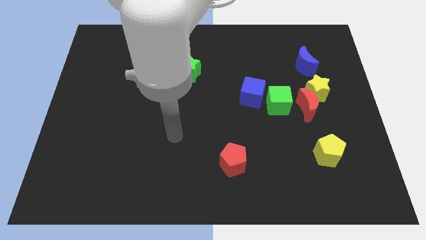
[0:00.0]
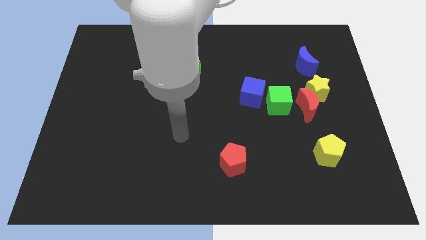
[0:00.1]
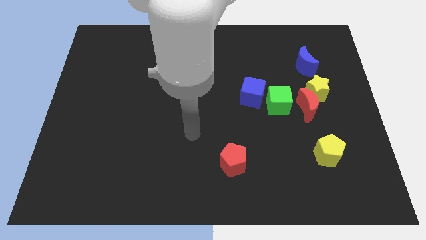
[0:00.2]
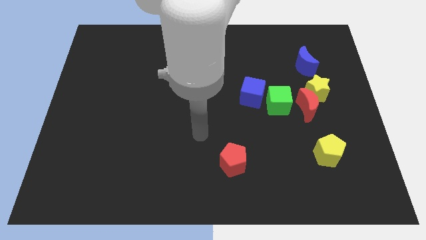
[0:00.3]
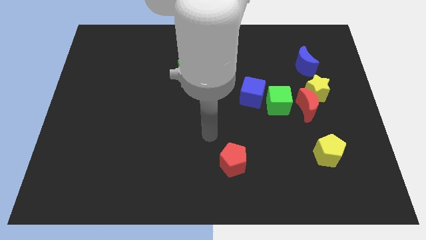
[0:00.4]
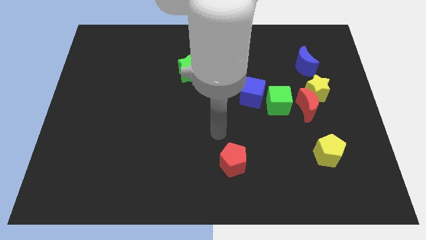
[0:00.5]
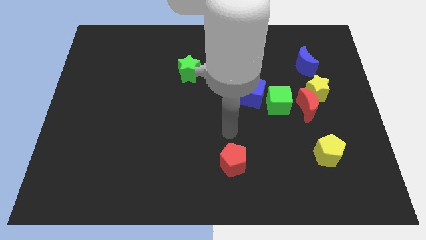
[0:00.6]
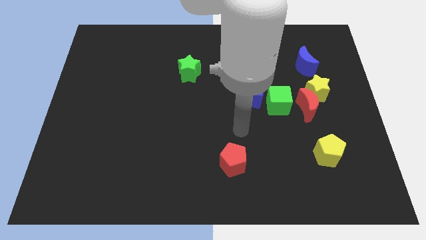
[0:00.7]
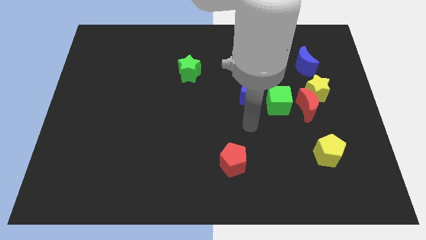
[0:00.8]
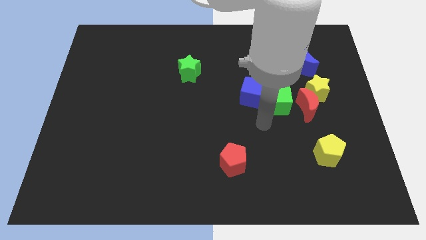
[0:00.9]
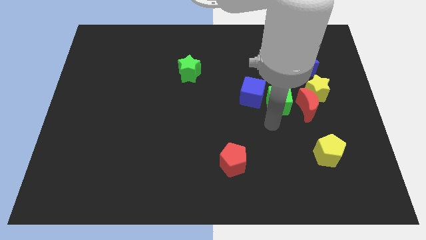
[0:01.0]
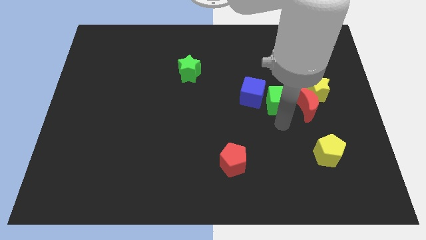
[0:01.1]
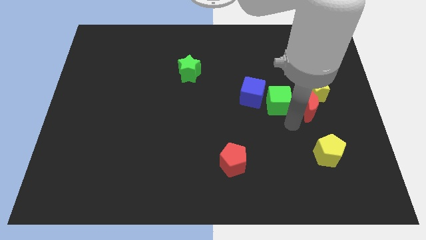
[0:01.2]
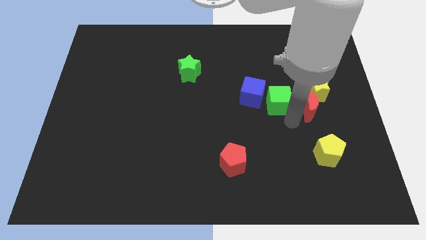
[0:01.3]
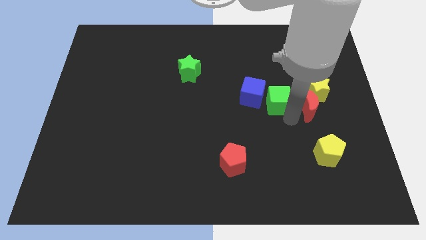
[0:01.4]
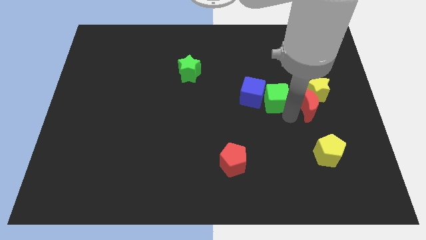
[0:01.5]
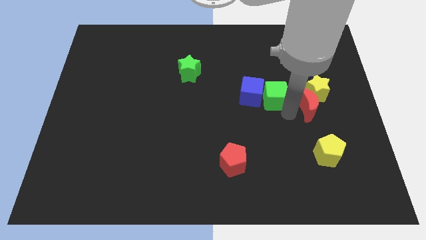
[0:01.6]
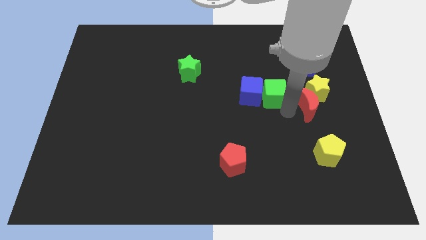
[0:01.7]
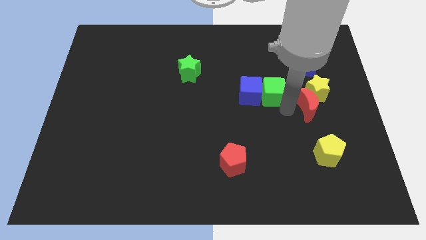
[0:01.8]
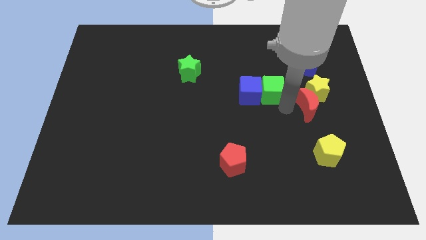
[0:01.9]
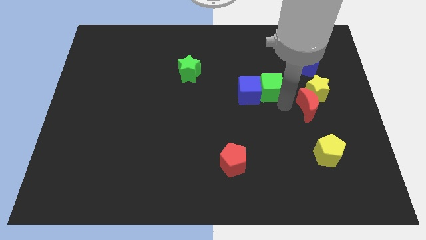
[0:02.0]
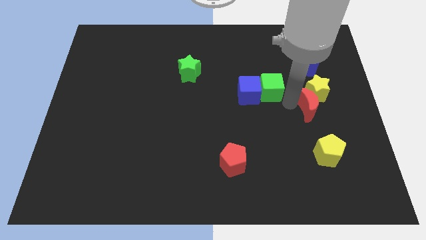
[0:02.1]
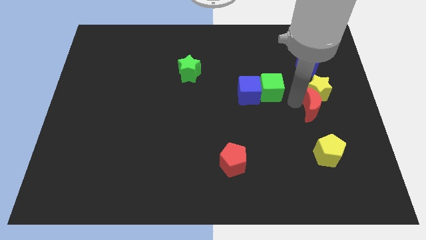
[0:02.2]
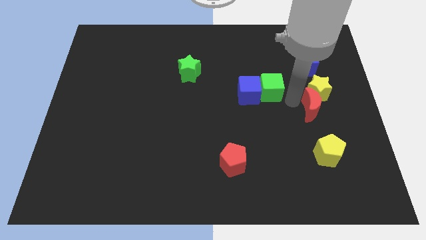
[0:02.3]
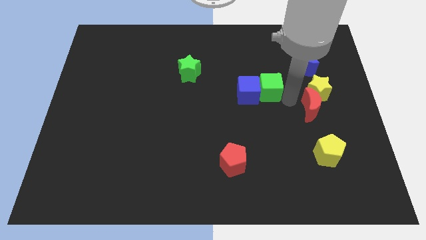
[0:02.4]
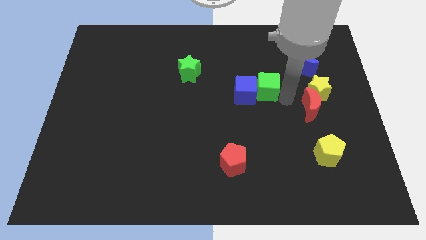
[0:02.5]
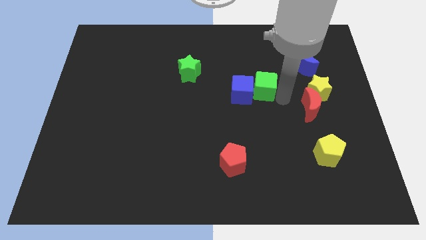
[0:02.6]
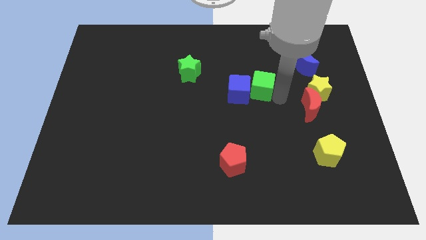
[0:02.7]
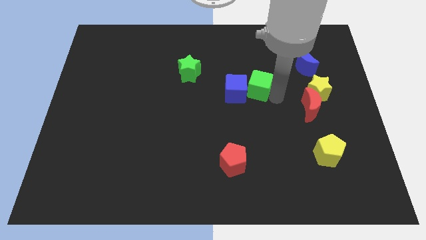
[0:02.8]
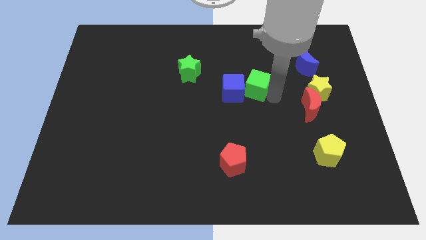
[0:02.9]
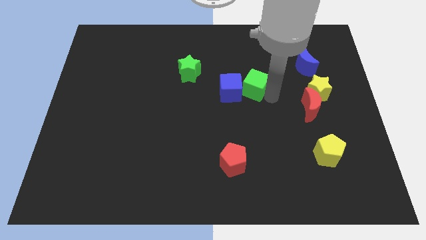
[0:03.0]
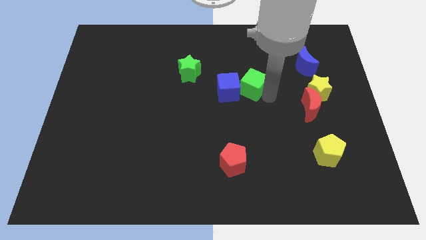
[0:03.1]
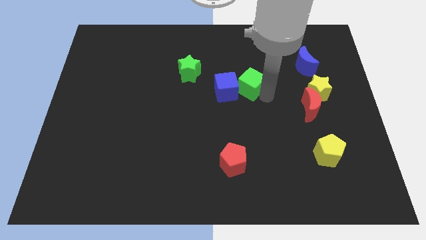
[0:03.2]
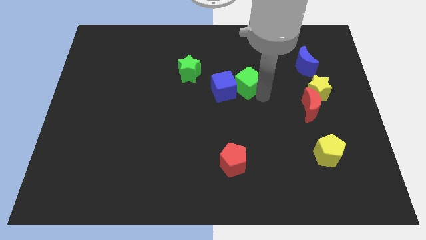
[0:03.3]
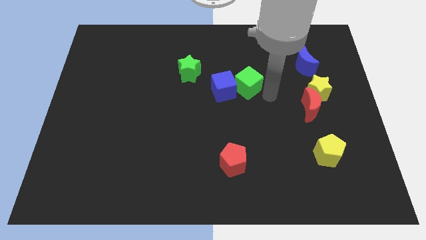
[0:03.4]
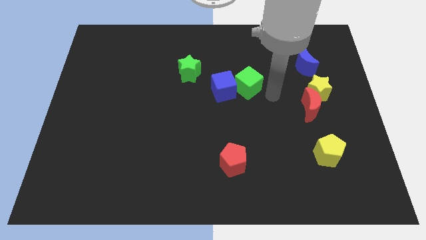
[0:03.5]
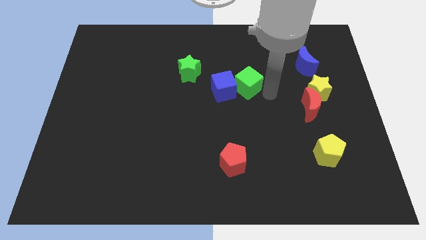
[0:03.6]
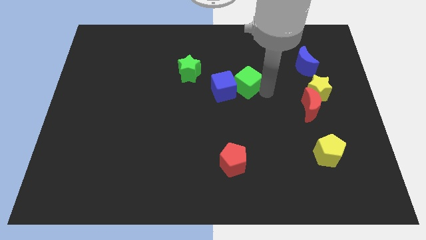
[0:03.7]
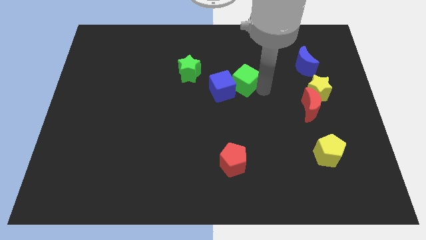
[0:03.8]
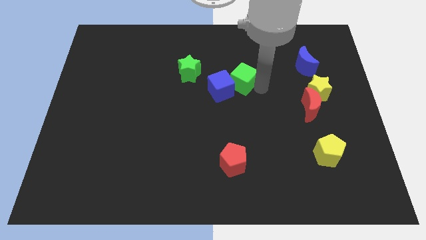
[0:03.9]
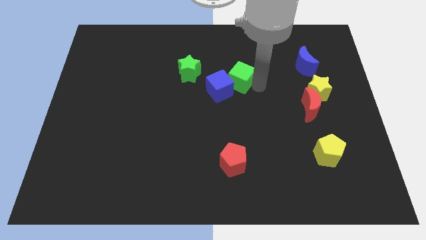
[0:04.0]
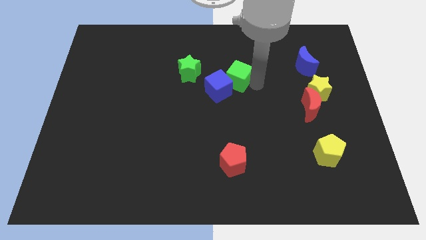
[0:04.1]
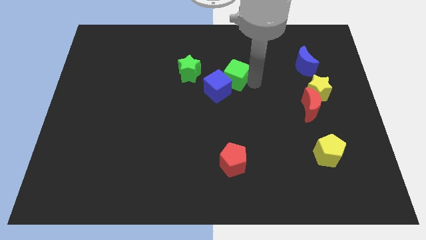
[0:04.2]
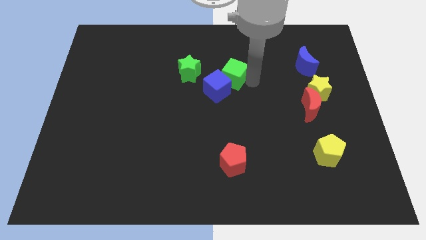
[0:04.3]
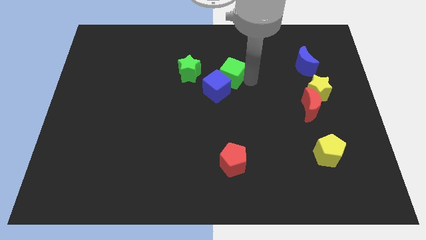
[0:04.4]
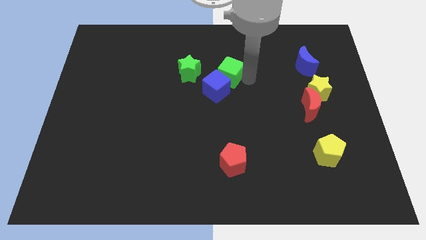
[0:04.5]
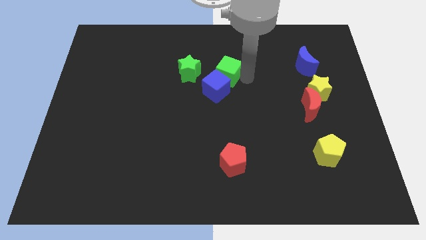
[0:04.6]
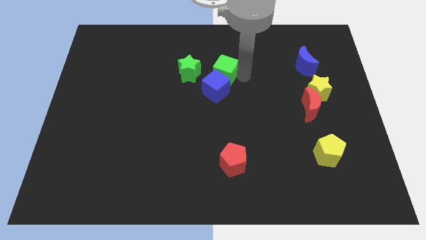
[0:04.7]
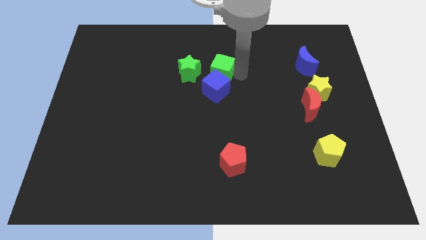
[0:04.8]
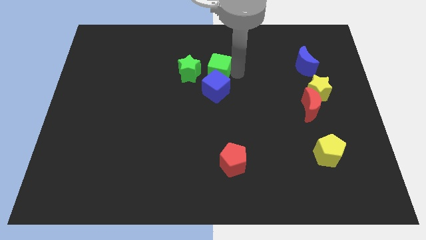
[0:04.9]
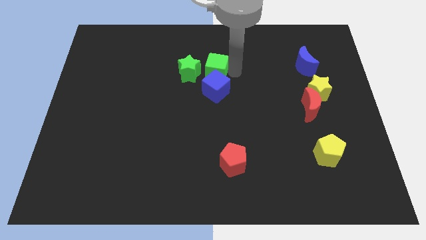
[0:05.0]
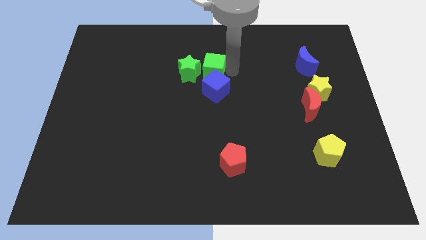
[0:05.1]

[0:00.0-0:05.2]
put the green cube close to the green star

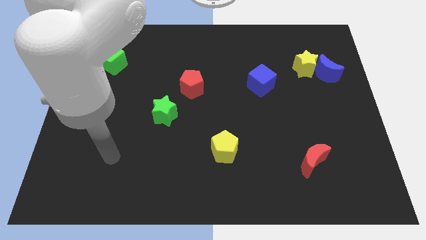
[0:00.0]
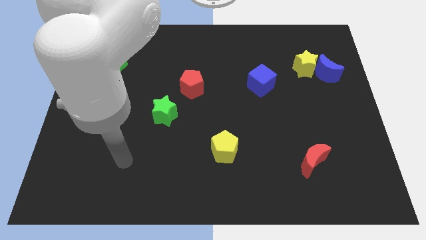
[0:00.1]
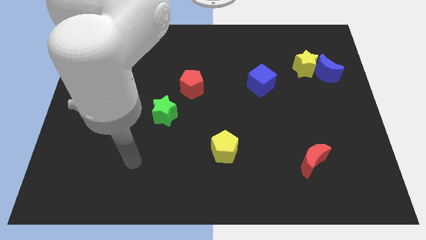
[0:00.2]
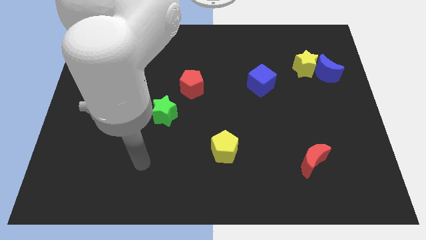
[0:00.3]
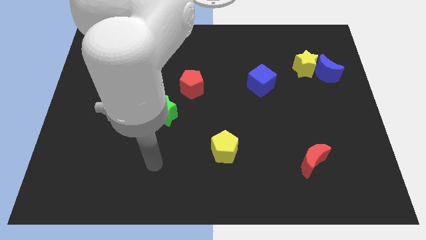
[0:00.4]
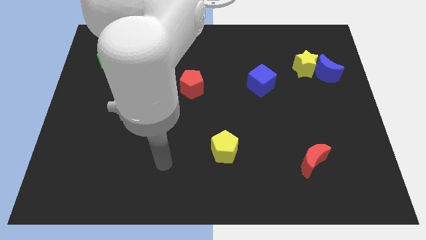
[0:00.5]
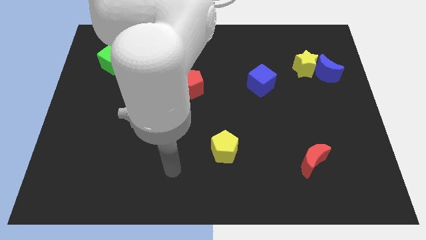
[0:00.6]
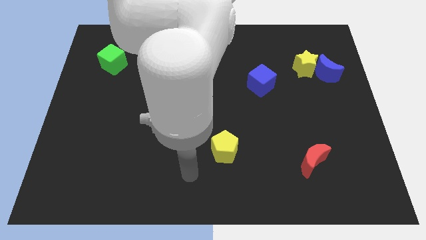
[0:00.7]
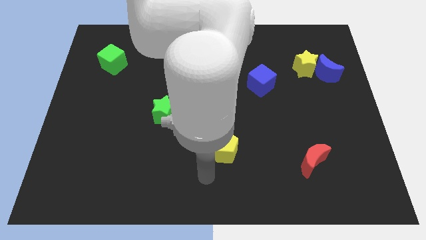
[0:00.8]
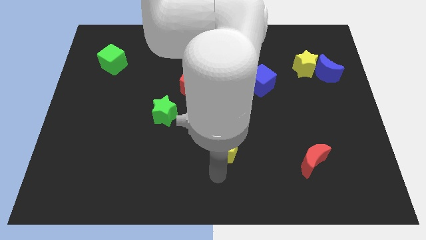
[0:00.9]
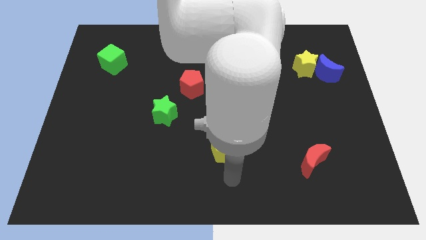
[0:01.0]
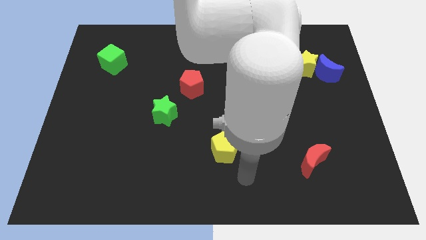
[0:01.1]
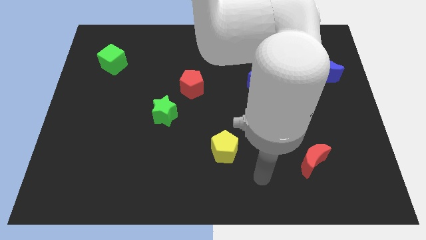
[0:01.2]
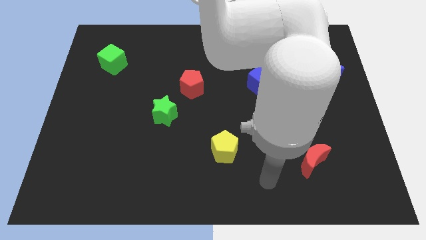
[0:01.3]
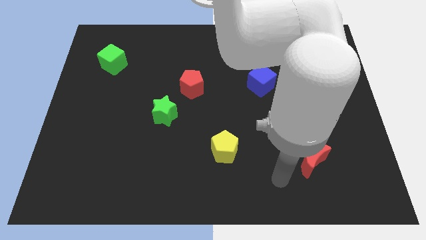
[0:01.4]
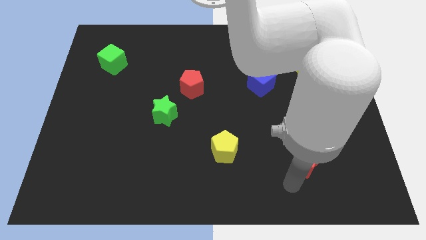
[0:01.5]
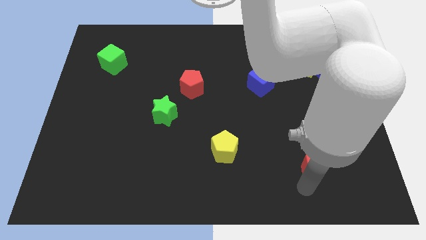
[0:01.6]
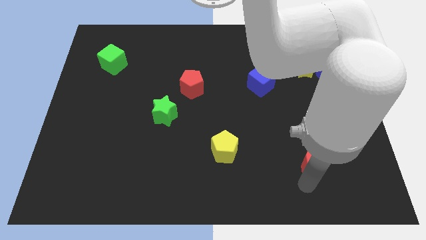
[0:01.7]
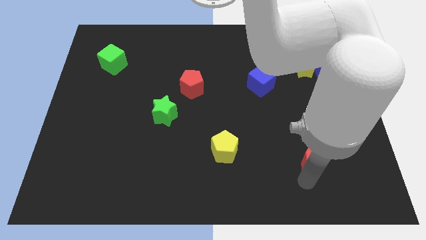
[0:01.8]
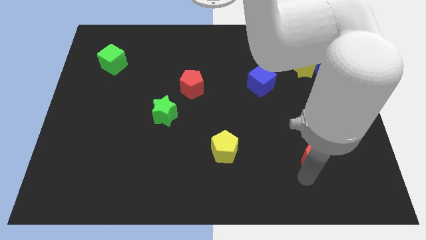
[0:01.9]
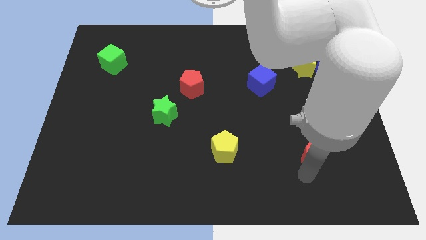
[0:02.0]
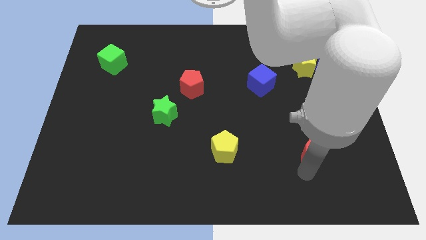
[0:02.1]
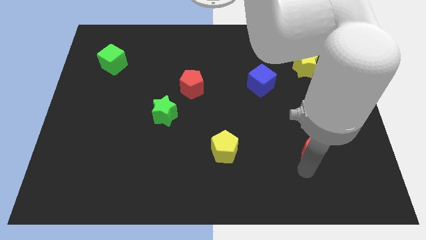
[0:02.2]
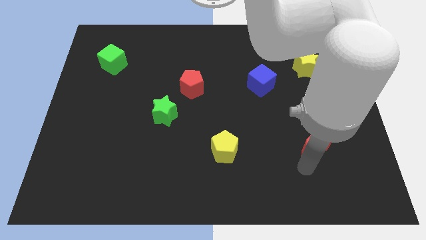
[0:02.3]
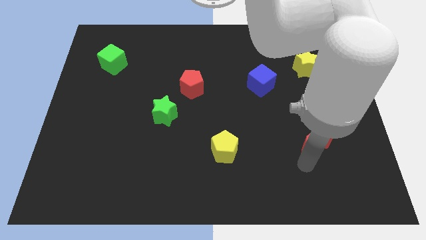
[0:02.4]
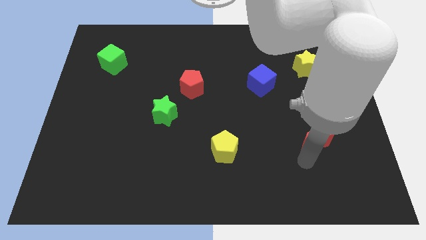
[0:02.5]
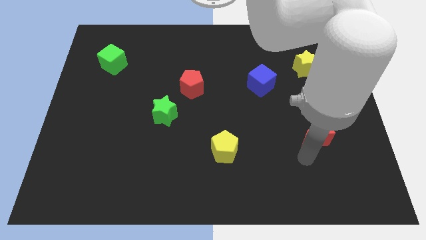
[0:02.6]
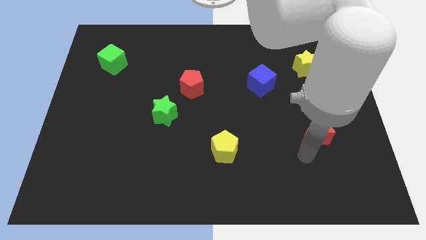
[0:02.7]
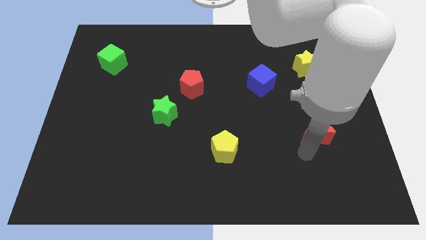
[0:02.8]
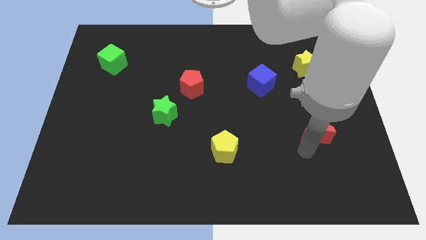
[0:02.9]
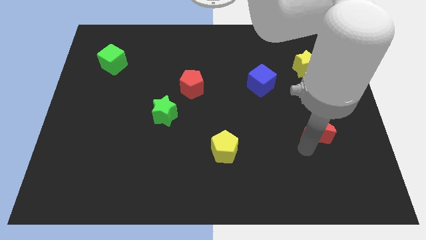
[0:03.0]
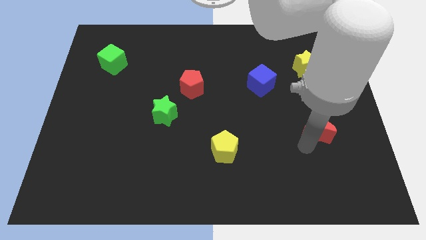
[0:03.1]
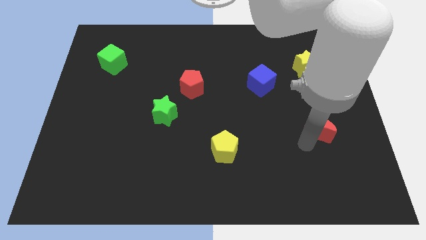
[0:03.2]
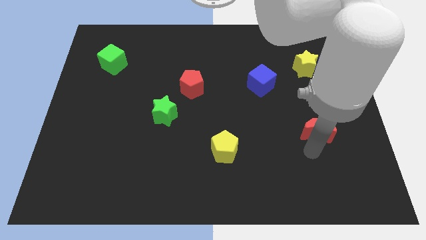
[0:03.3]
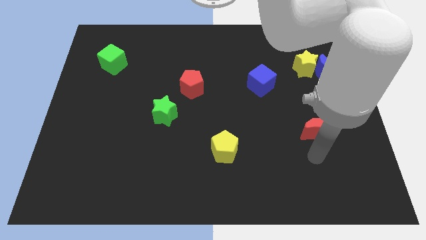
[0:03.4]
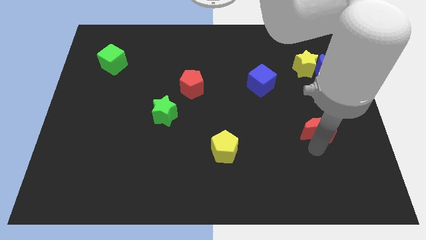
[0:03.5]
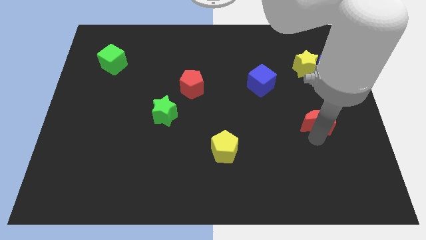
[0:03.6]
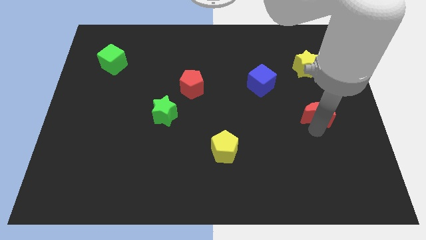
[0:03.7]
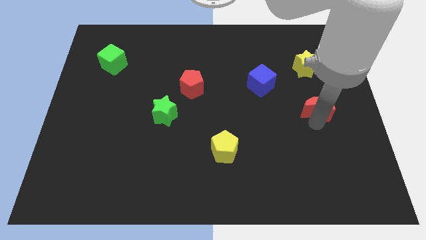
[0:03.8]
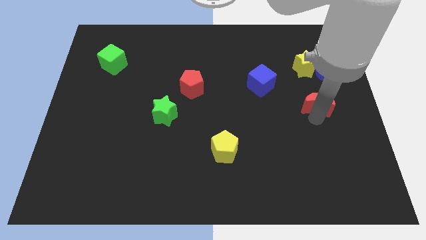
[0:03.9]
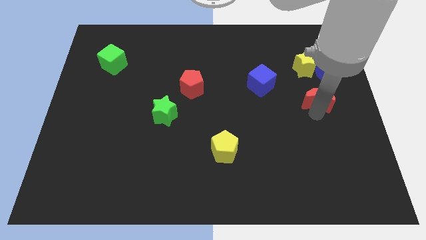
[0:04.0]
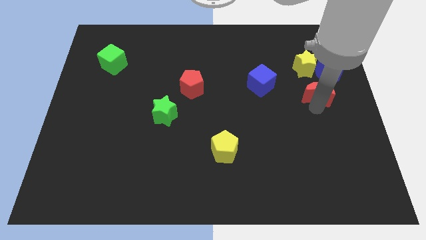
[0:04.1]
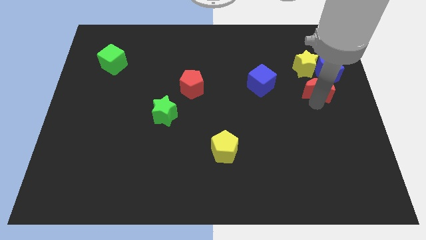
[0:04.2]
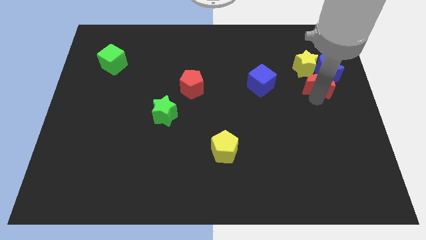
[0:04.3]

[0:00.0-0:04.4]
move the red moon close to the blue moon
